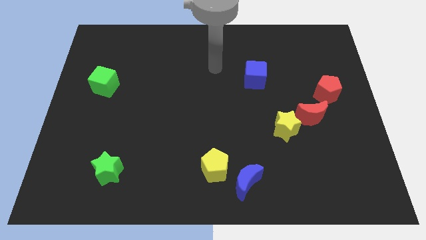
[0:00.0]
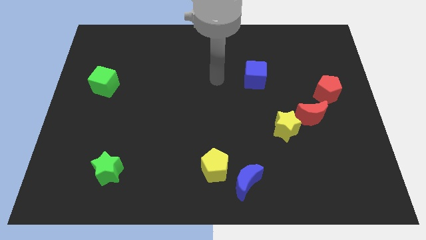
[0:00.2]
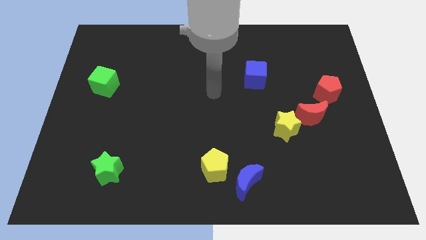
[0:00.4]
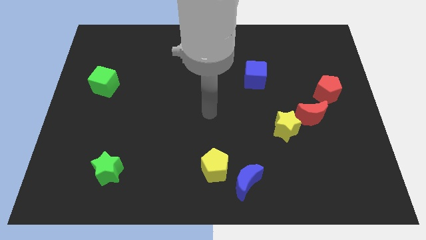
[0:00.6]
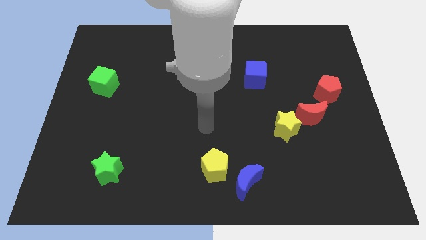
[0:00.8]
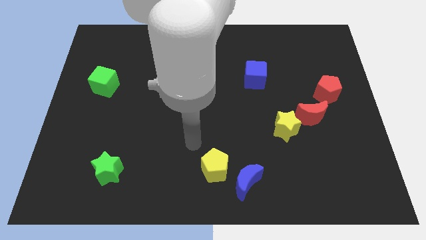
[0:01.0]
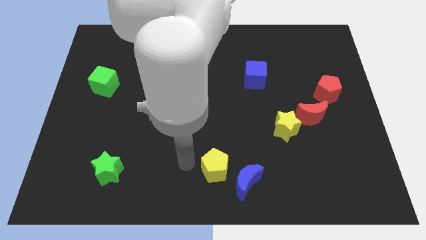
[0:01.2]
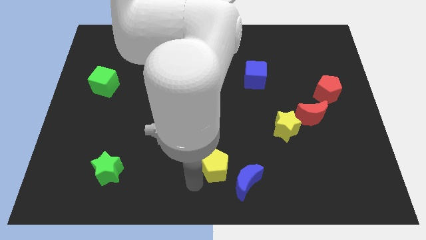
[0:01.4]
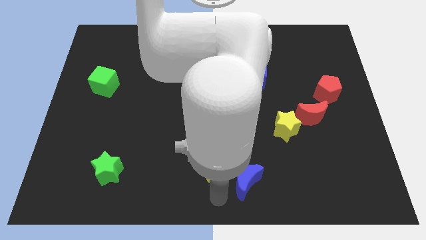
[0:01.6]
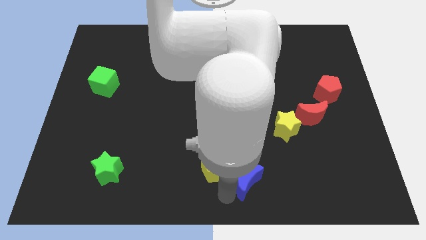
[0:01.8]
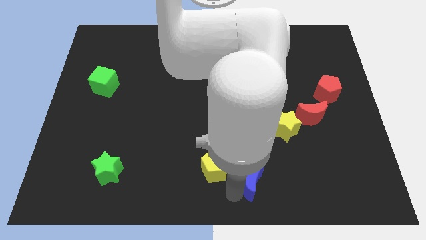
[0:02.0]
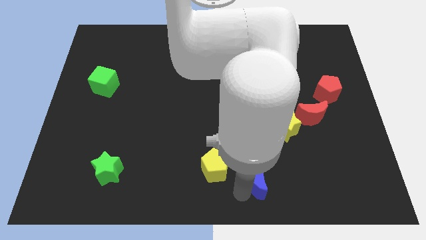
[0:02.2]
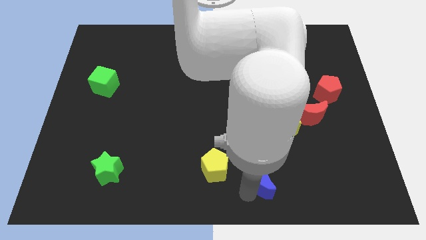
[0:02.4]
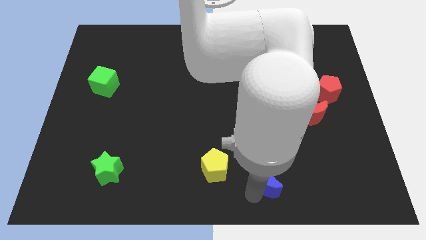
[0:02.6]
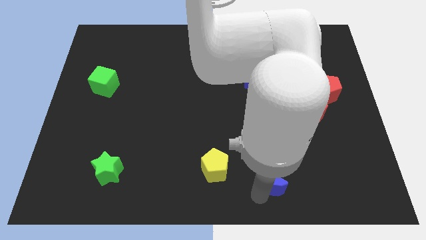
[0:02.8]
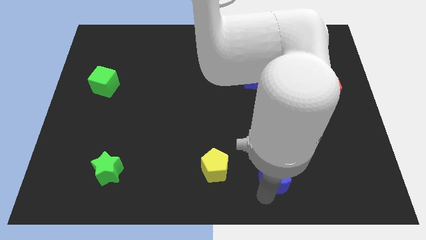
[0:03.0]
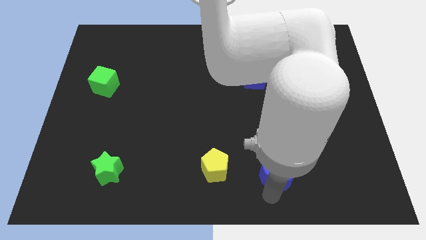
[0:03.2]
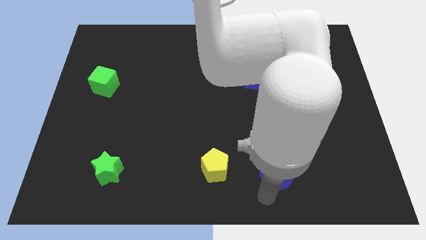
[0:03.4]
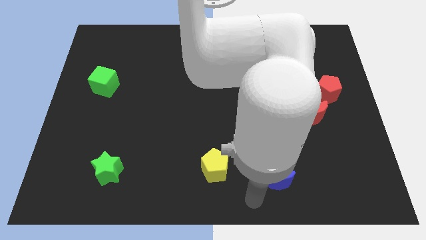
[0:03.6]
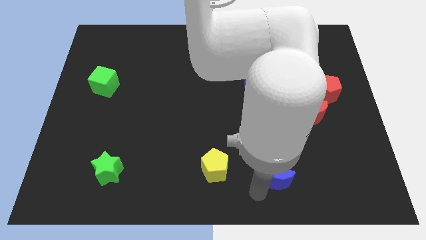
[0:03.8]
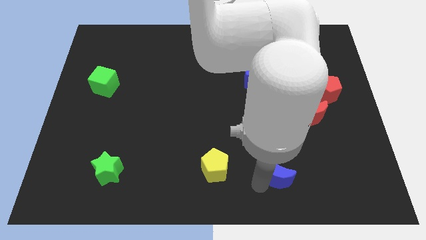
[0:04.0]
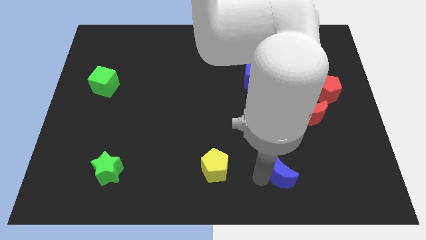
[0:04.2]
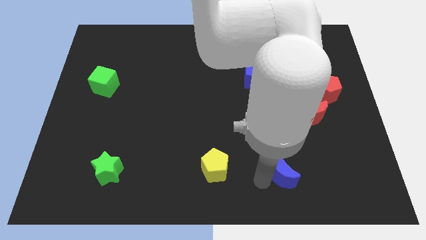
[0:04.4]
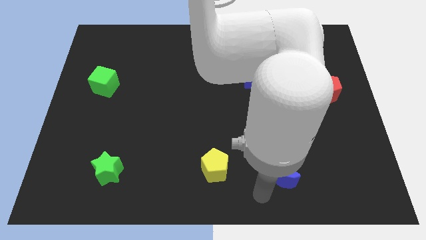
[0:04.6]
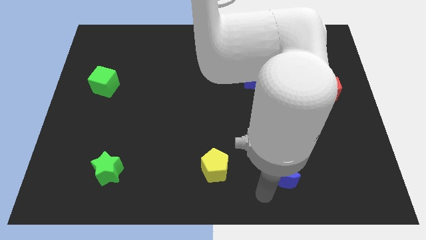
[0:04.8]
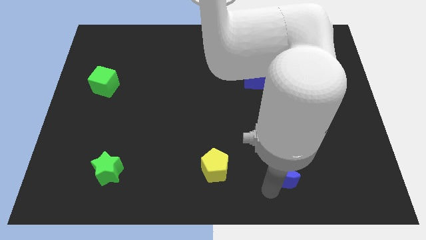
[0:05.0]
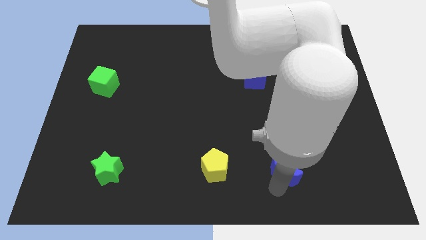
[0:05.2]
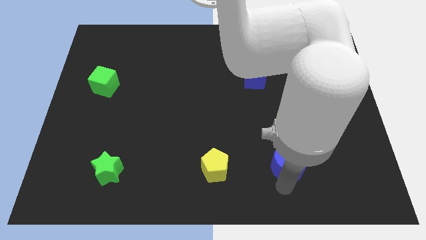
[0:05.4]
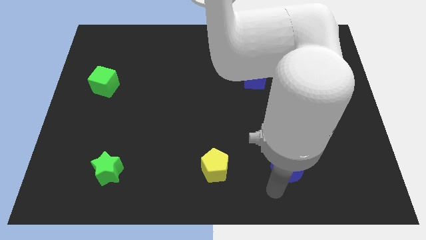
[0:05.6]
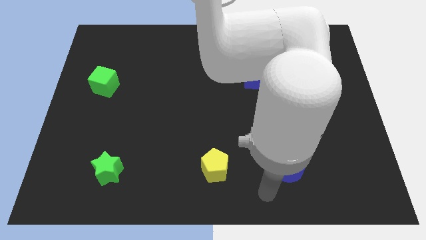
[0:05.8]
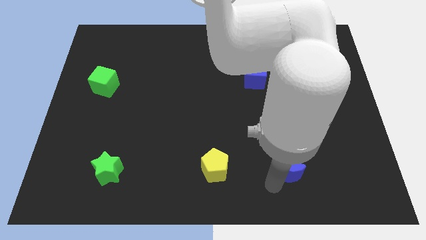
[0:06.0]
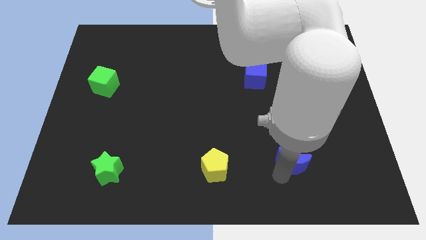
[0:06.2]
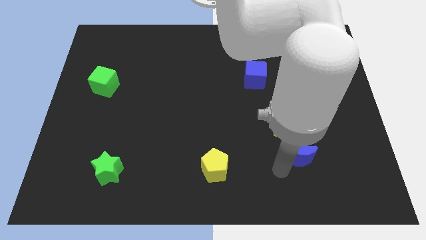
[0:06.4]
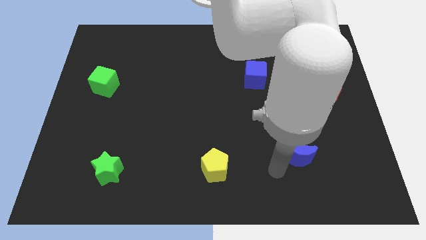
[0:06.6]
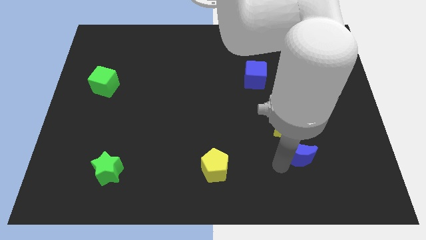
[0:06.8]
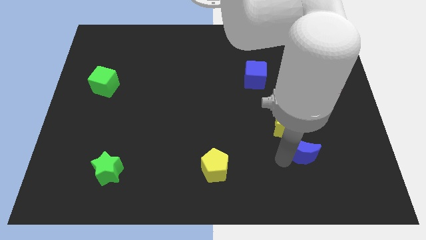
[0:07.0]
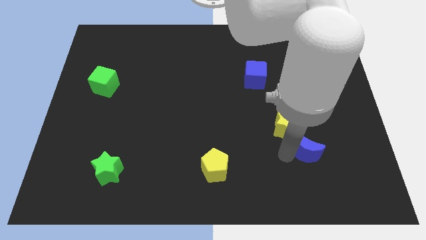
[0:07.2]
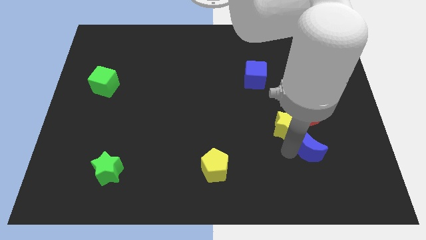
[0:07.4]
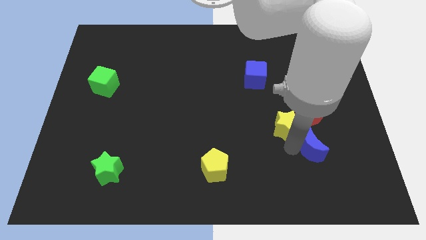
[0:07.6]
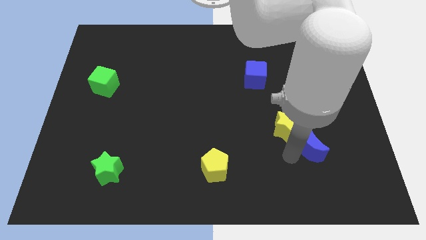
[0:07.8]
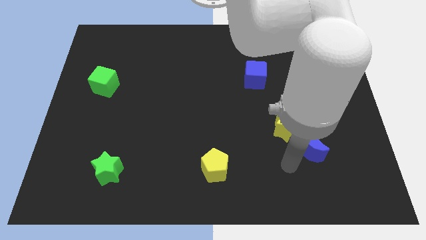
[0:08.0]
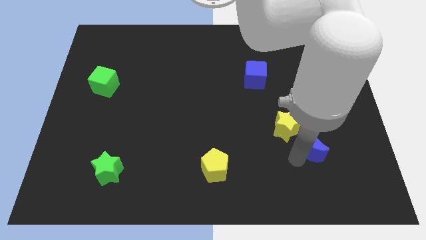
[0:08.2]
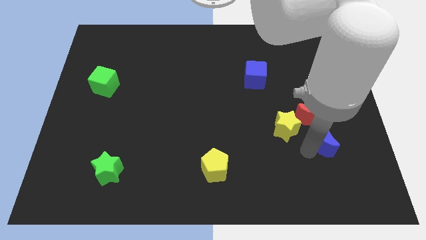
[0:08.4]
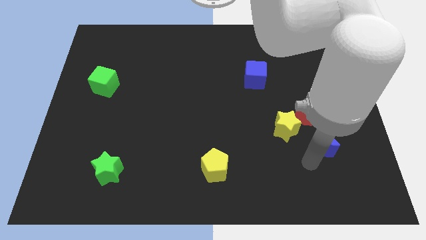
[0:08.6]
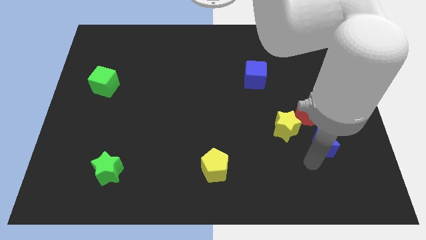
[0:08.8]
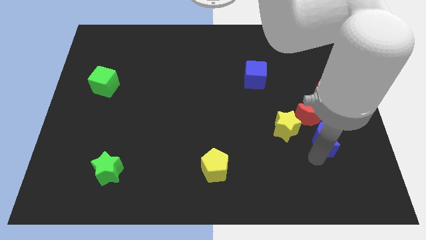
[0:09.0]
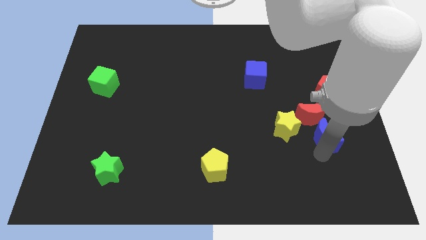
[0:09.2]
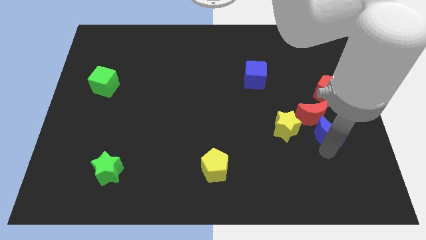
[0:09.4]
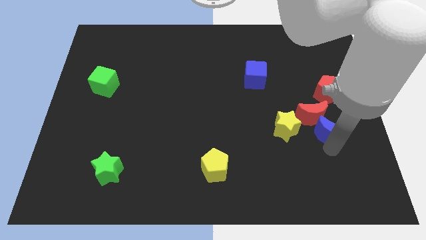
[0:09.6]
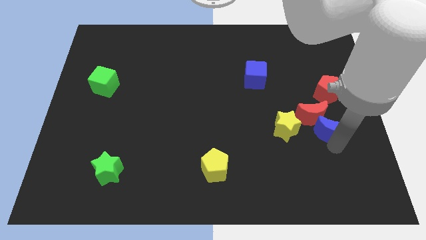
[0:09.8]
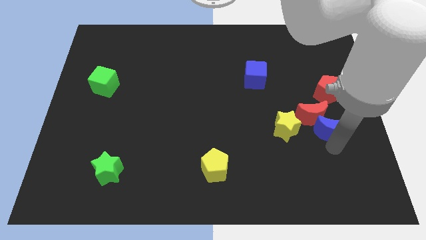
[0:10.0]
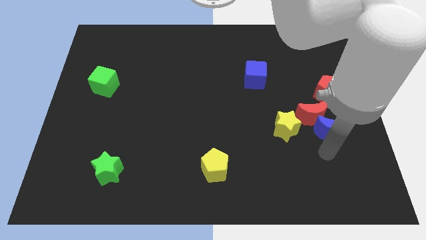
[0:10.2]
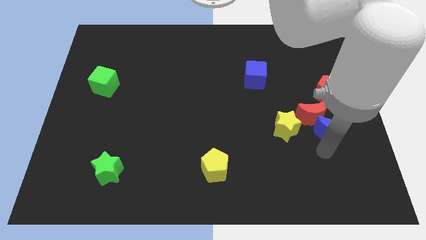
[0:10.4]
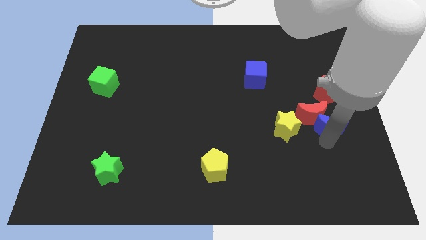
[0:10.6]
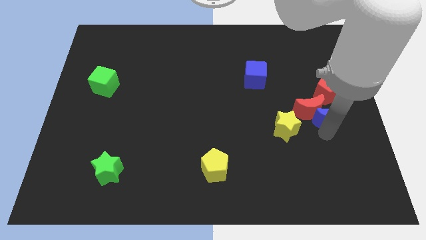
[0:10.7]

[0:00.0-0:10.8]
push the blue moon to the right side

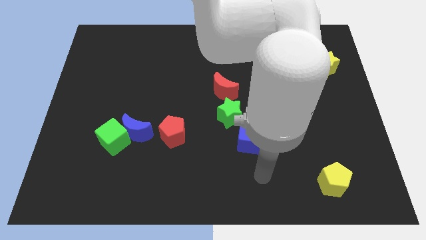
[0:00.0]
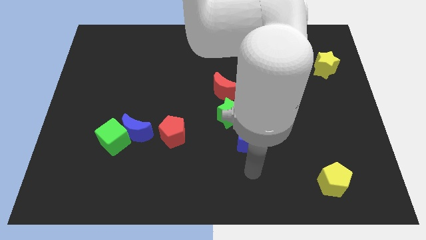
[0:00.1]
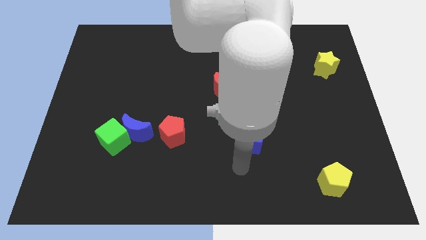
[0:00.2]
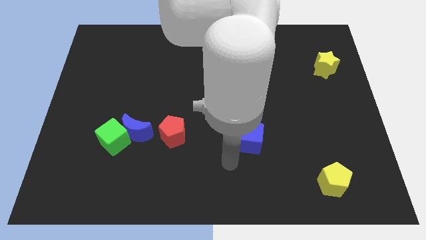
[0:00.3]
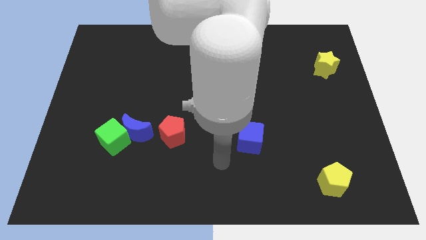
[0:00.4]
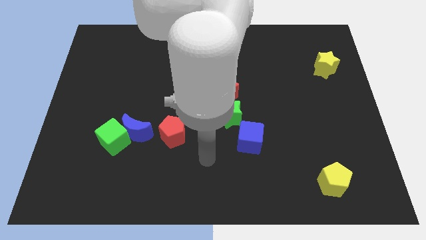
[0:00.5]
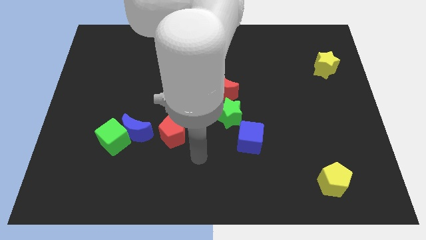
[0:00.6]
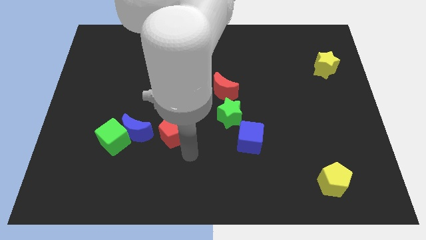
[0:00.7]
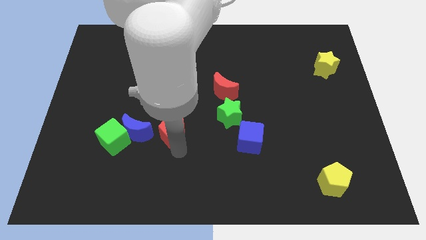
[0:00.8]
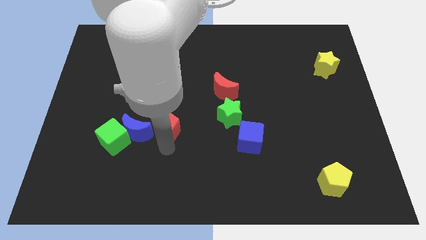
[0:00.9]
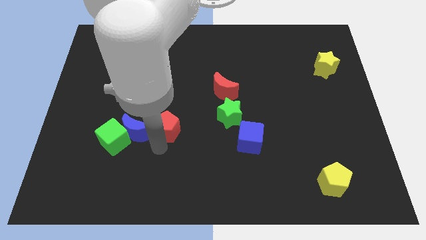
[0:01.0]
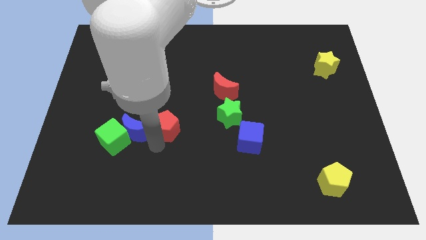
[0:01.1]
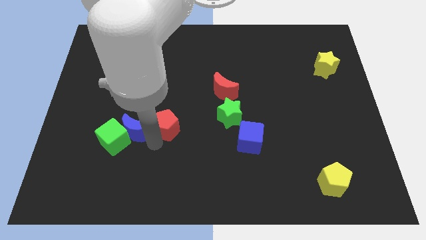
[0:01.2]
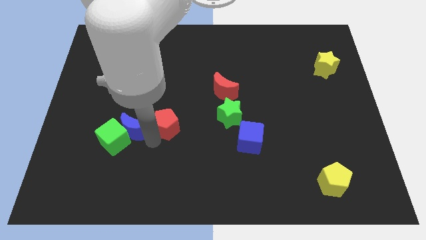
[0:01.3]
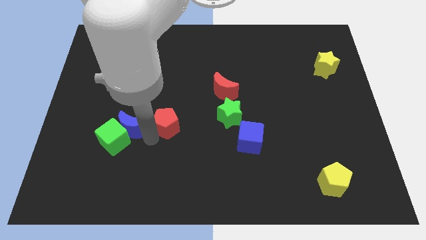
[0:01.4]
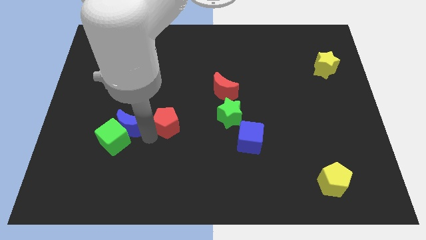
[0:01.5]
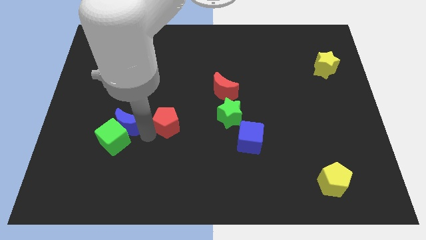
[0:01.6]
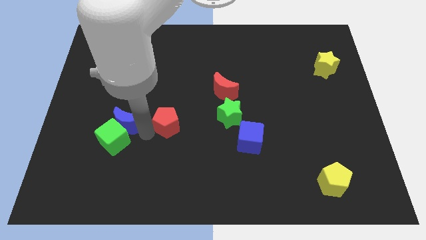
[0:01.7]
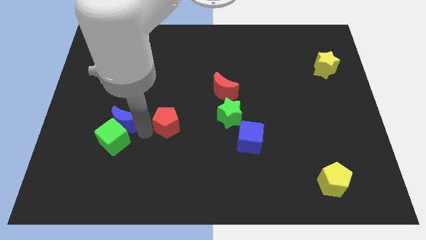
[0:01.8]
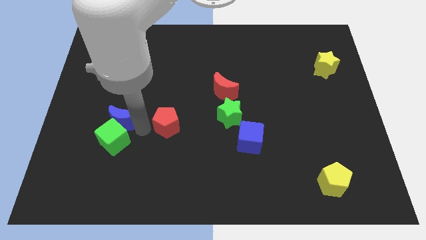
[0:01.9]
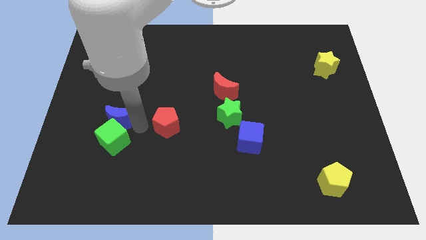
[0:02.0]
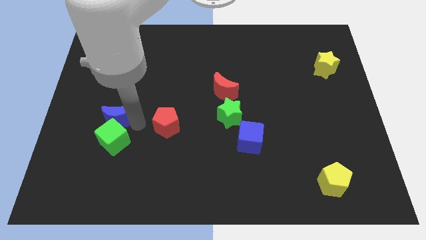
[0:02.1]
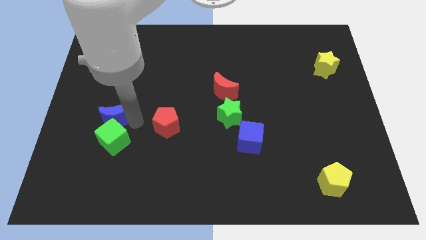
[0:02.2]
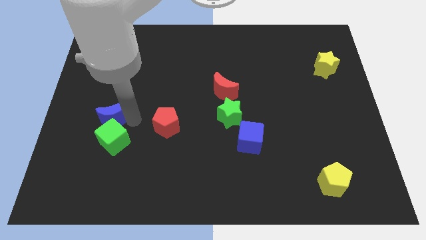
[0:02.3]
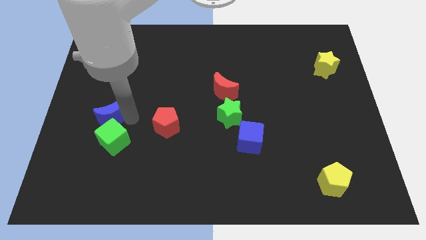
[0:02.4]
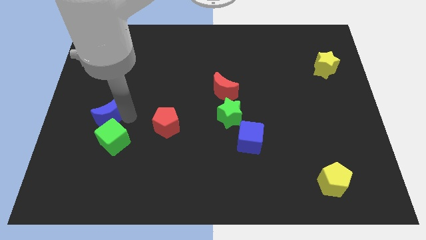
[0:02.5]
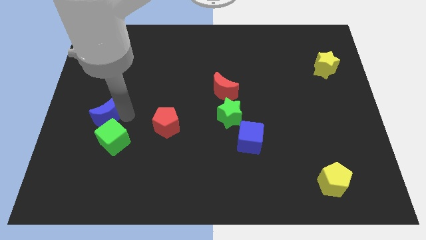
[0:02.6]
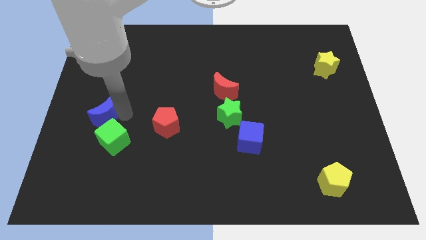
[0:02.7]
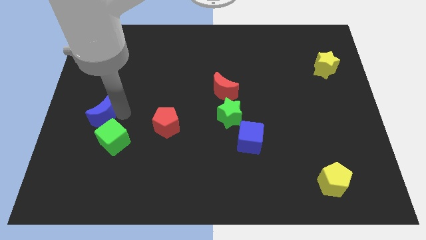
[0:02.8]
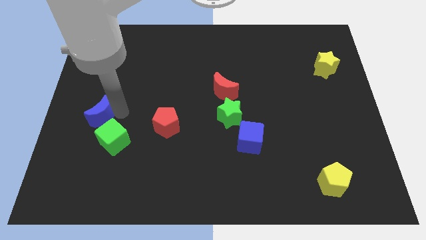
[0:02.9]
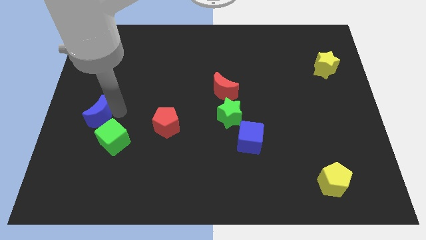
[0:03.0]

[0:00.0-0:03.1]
move the blue moon to the left side
